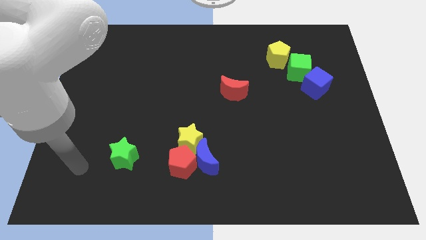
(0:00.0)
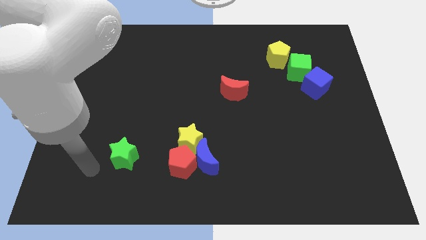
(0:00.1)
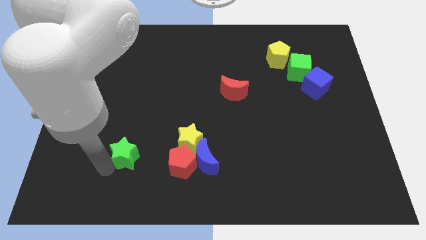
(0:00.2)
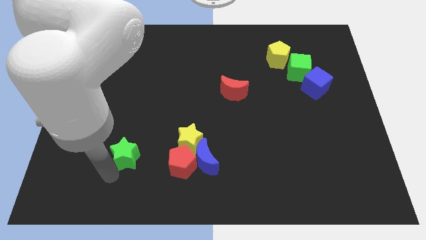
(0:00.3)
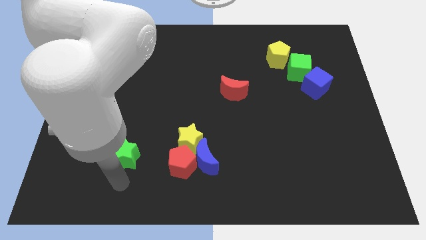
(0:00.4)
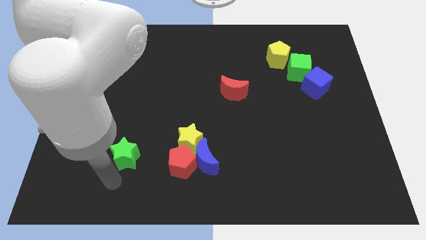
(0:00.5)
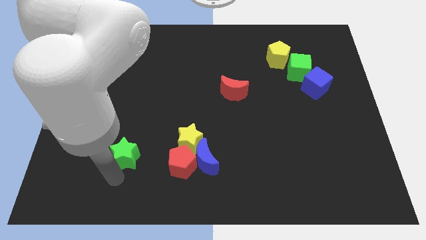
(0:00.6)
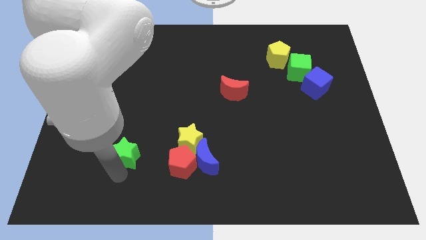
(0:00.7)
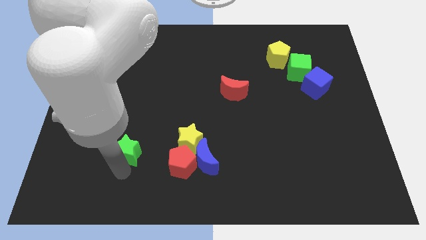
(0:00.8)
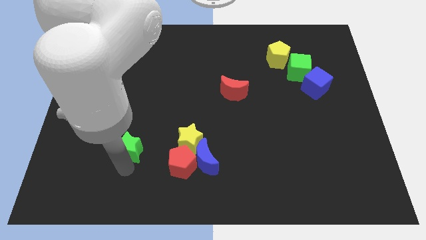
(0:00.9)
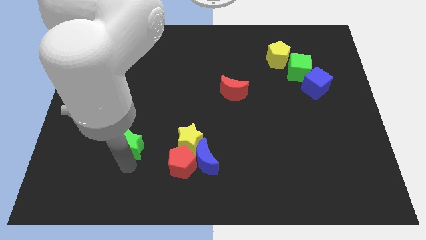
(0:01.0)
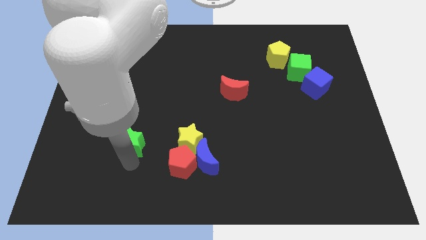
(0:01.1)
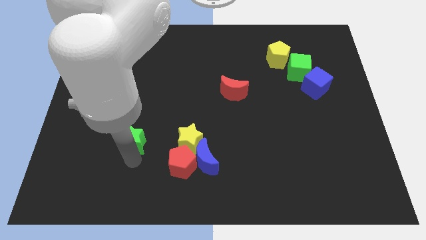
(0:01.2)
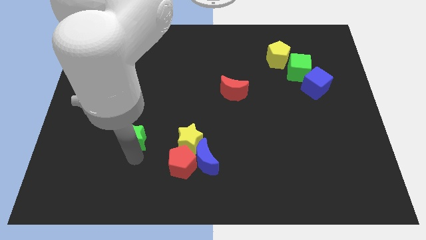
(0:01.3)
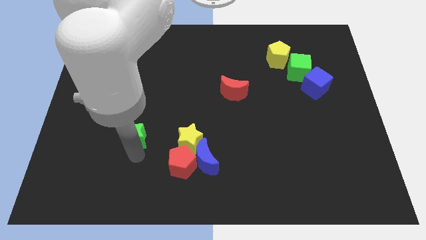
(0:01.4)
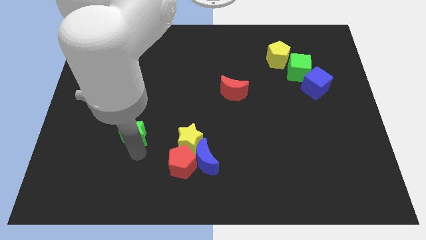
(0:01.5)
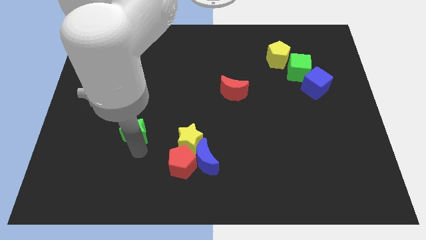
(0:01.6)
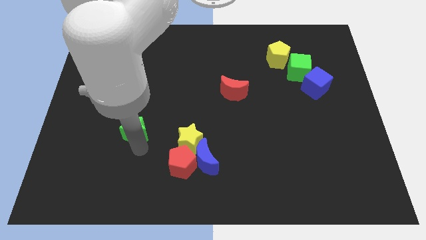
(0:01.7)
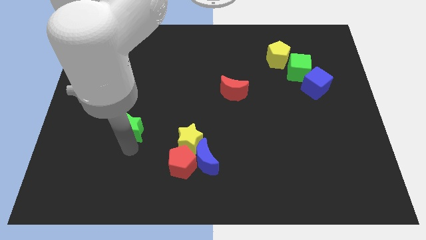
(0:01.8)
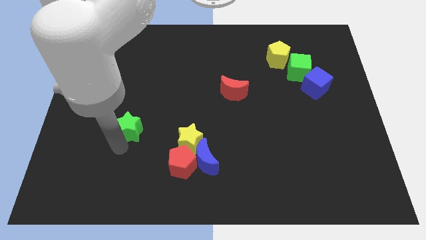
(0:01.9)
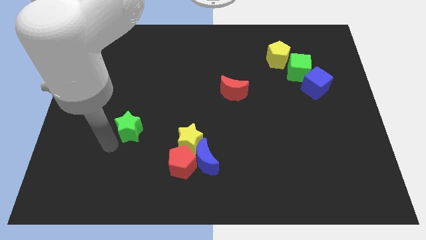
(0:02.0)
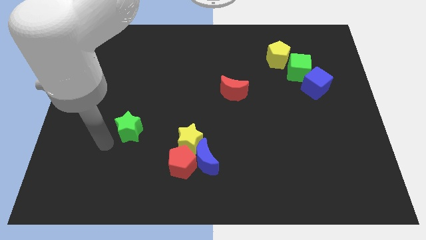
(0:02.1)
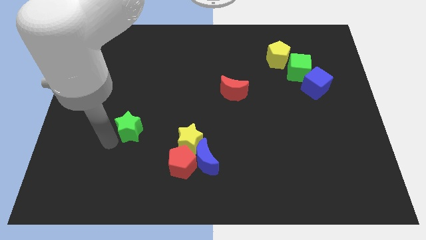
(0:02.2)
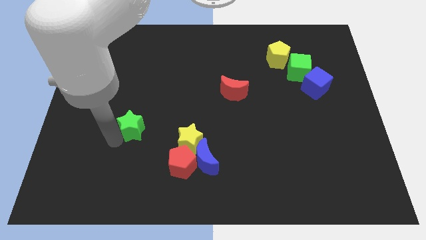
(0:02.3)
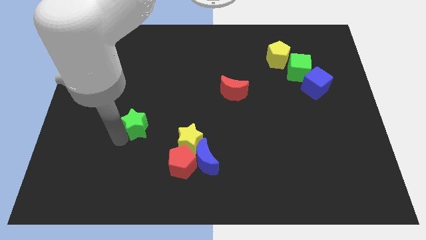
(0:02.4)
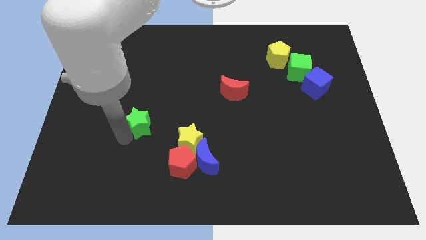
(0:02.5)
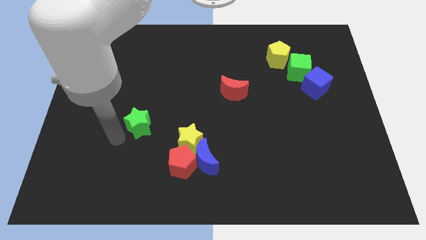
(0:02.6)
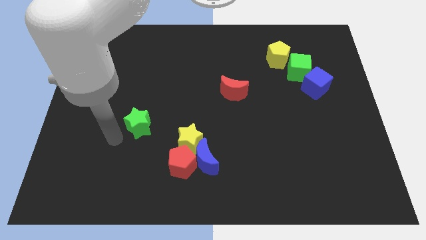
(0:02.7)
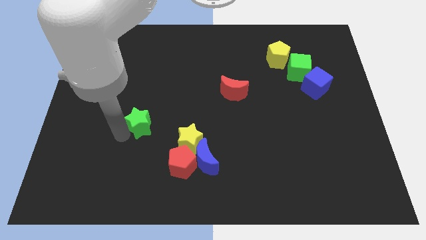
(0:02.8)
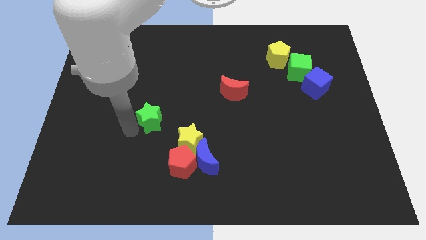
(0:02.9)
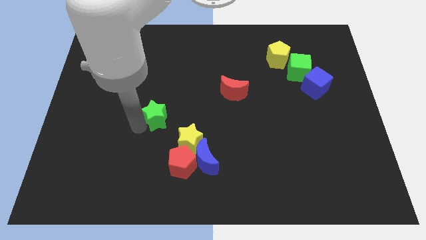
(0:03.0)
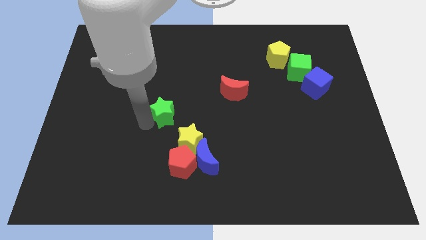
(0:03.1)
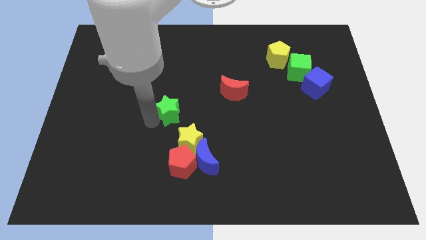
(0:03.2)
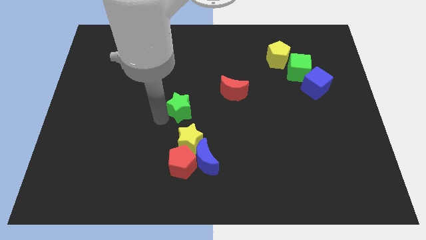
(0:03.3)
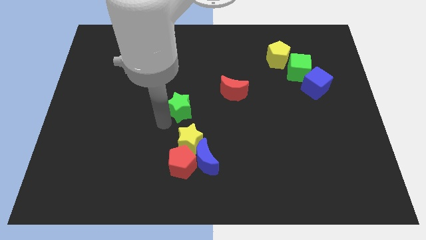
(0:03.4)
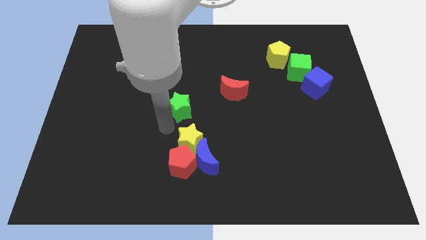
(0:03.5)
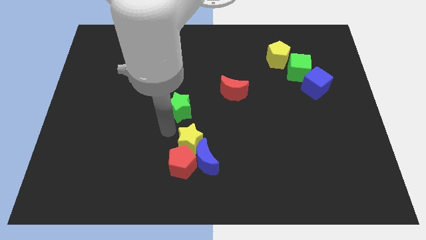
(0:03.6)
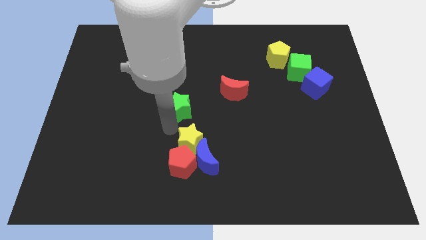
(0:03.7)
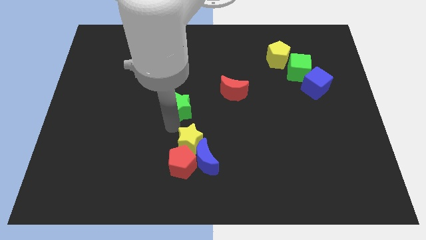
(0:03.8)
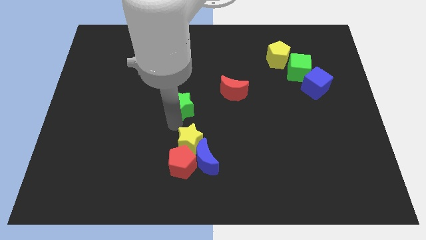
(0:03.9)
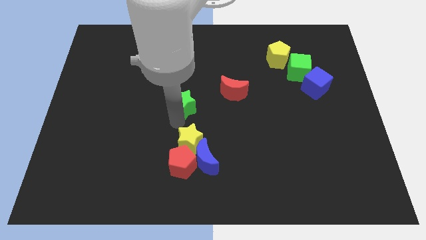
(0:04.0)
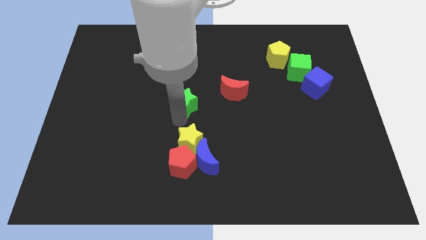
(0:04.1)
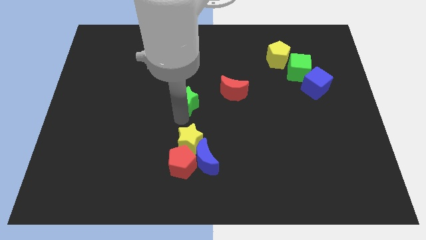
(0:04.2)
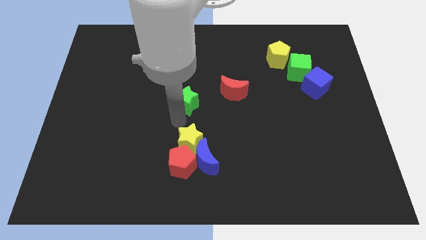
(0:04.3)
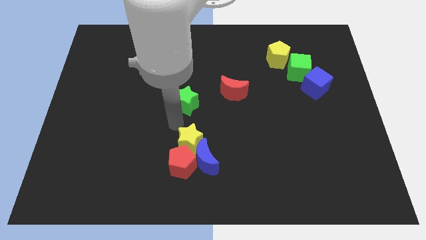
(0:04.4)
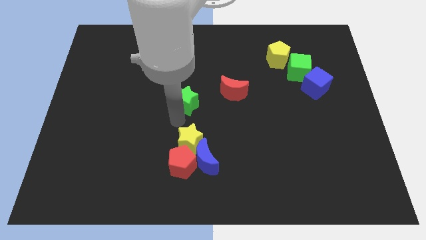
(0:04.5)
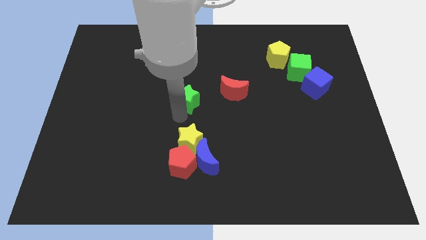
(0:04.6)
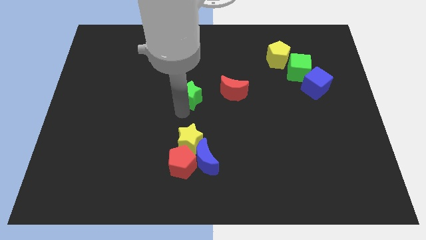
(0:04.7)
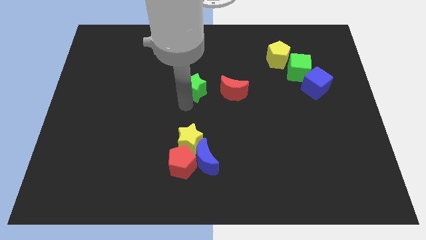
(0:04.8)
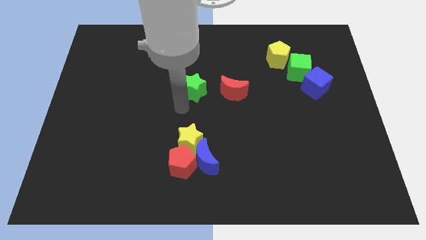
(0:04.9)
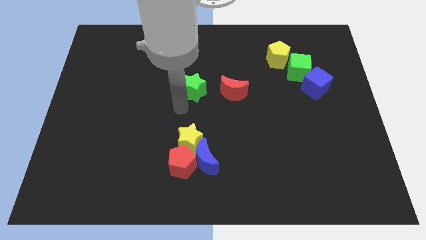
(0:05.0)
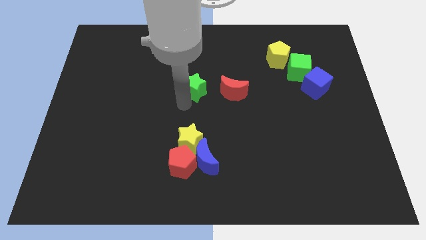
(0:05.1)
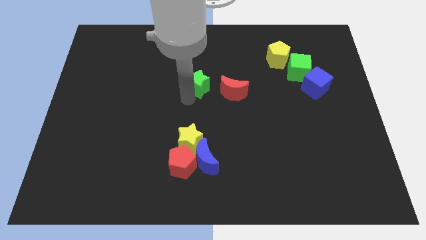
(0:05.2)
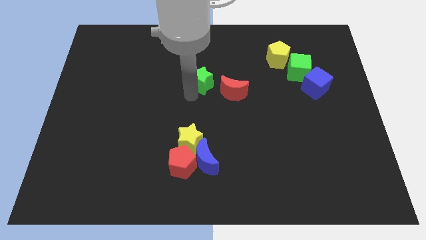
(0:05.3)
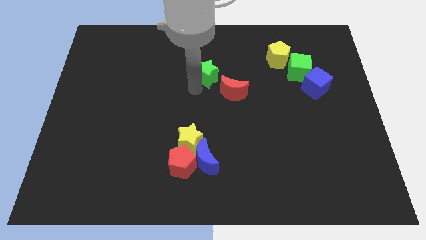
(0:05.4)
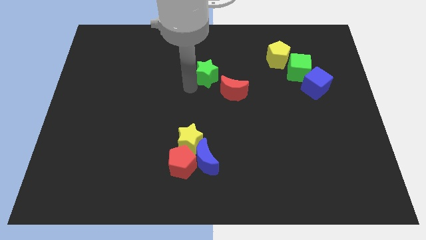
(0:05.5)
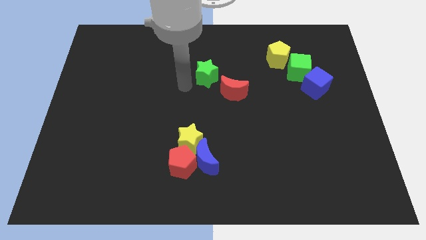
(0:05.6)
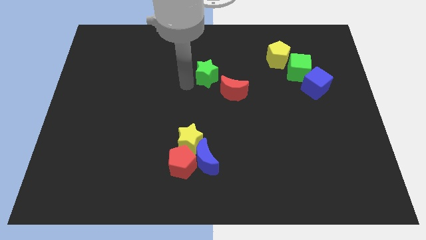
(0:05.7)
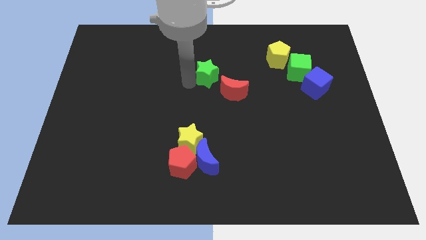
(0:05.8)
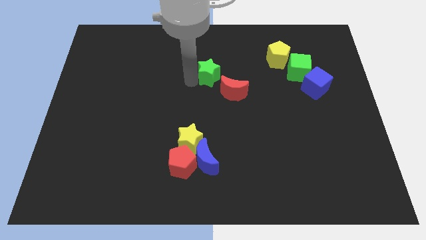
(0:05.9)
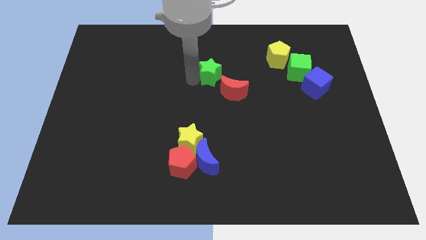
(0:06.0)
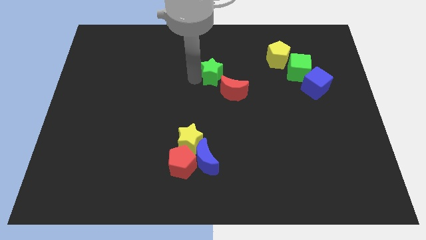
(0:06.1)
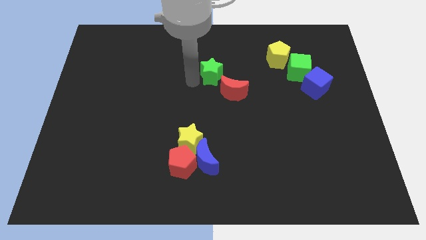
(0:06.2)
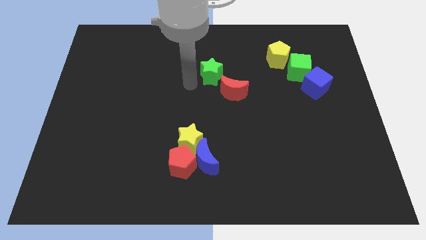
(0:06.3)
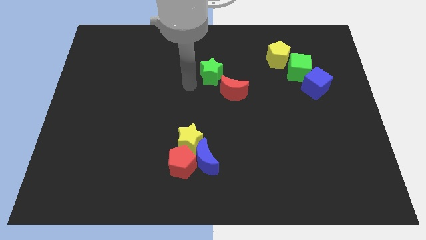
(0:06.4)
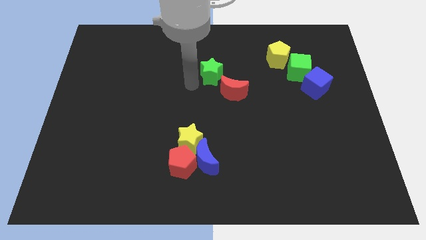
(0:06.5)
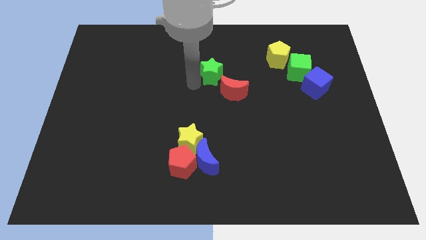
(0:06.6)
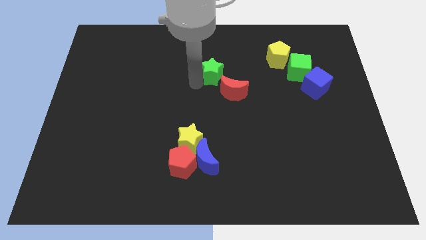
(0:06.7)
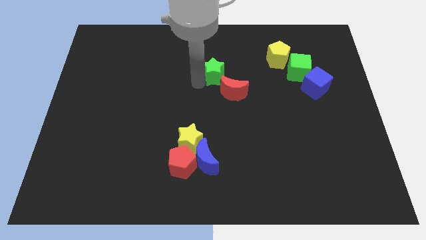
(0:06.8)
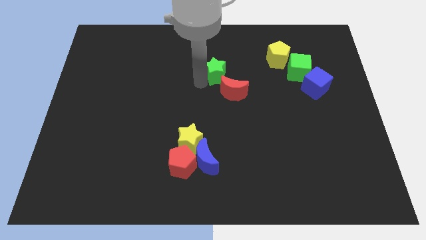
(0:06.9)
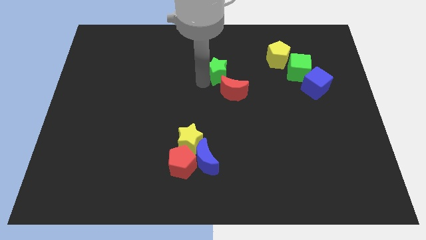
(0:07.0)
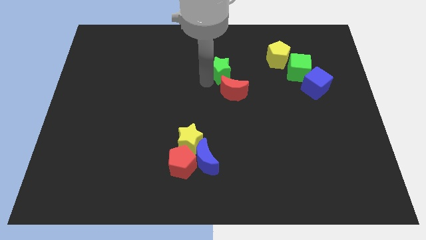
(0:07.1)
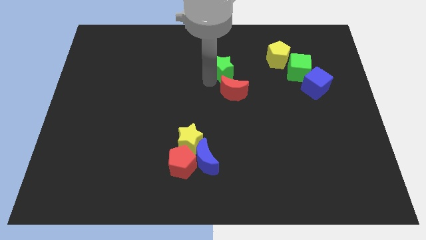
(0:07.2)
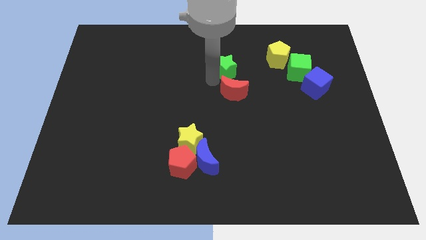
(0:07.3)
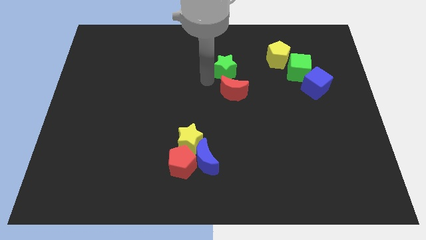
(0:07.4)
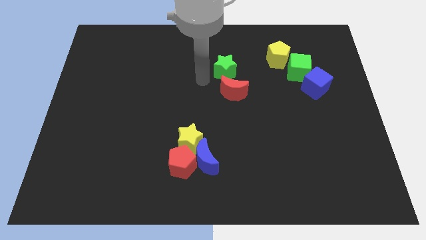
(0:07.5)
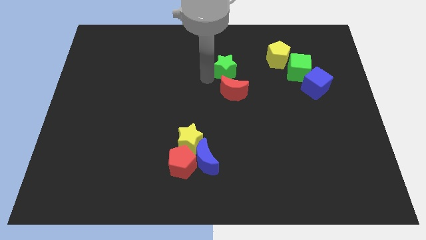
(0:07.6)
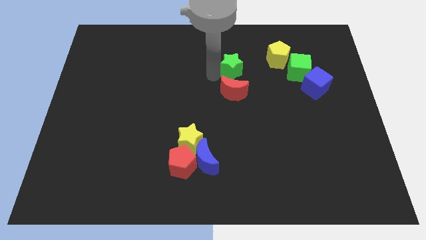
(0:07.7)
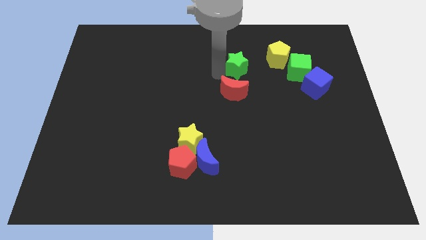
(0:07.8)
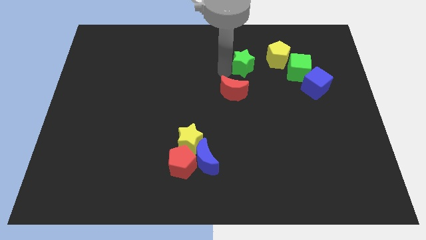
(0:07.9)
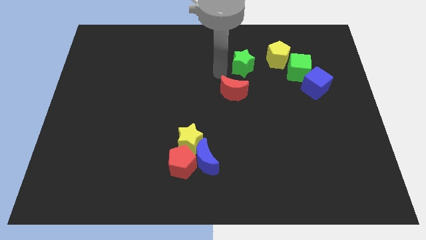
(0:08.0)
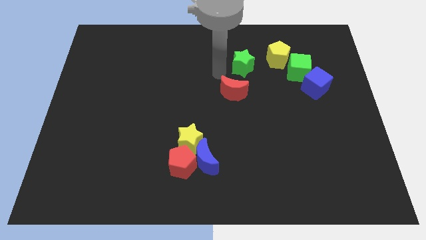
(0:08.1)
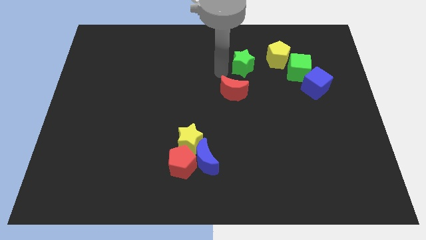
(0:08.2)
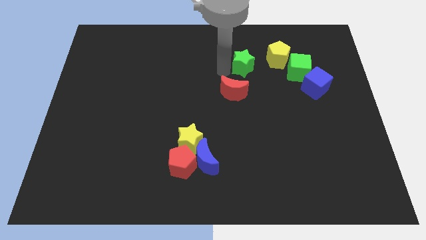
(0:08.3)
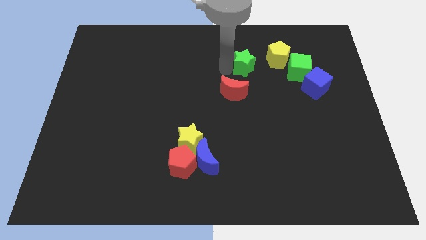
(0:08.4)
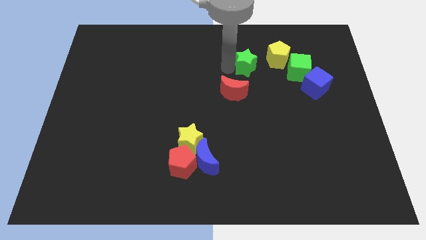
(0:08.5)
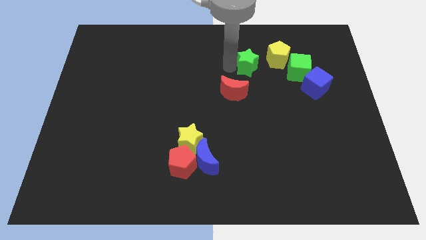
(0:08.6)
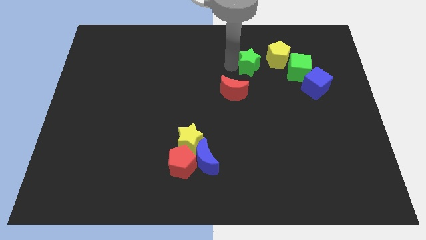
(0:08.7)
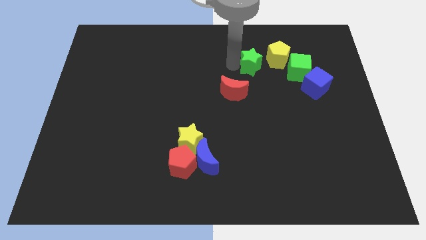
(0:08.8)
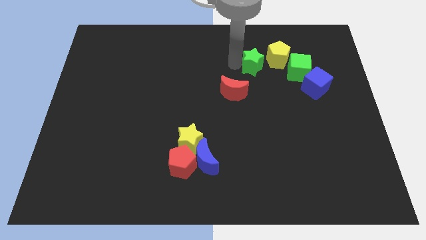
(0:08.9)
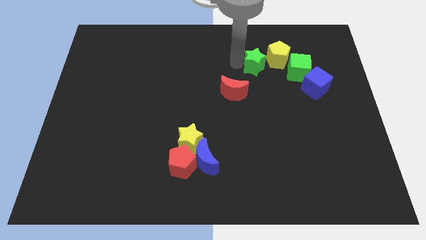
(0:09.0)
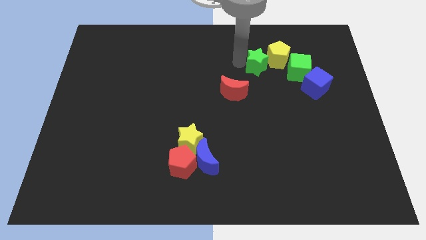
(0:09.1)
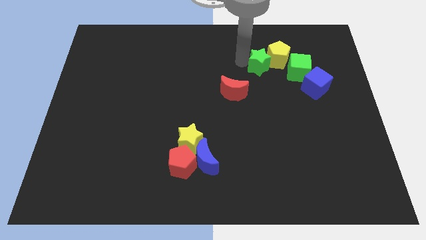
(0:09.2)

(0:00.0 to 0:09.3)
push the green star to the yellow pentagon
